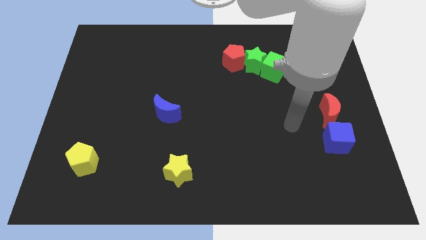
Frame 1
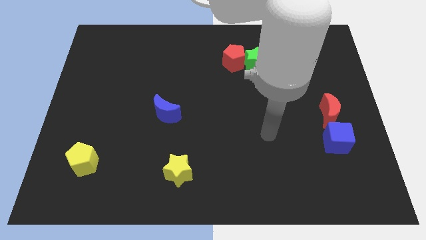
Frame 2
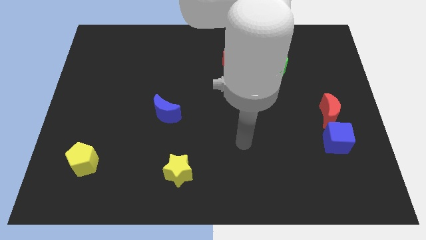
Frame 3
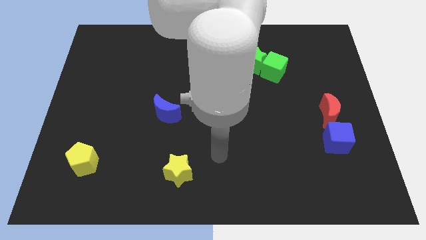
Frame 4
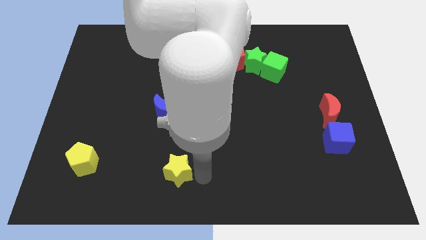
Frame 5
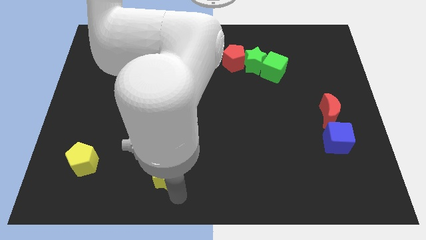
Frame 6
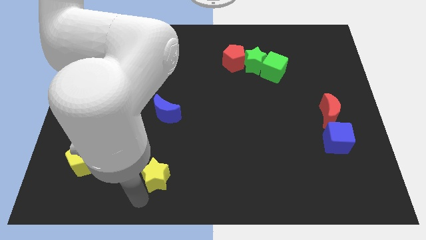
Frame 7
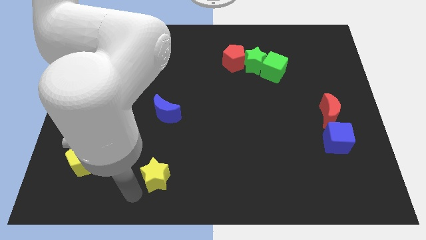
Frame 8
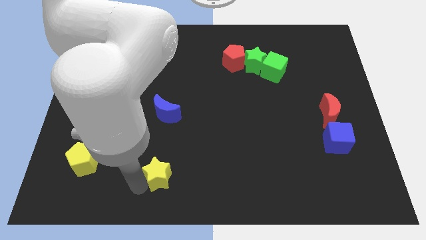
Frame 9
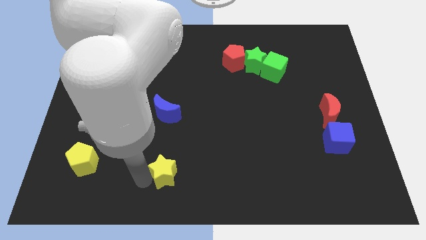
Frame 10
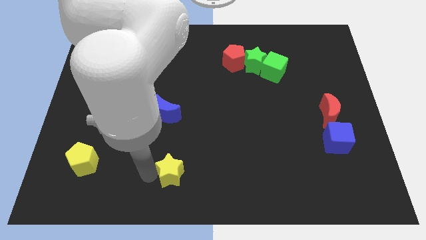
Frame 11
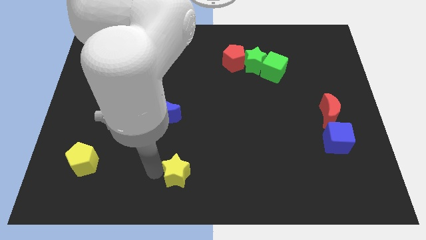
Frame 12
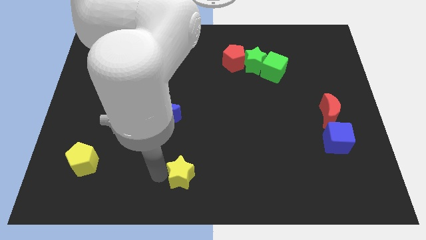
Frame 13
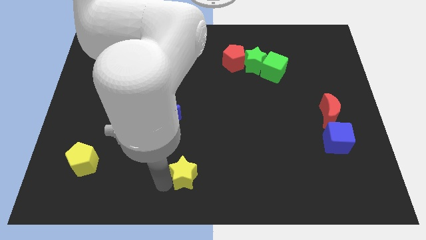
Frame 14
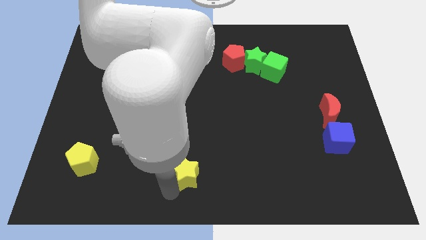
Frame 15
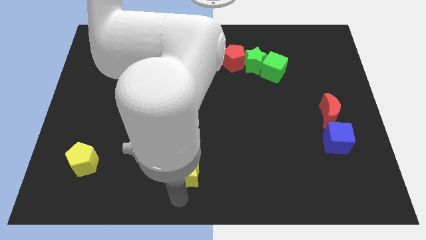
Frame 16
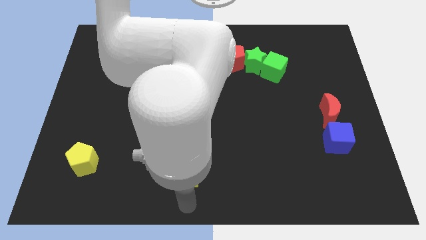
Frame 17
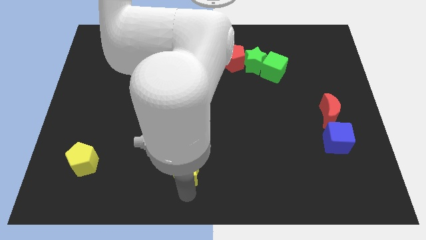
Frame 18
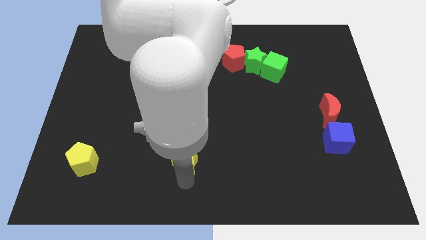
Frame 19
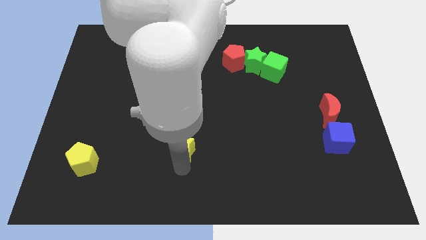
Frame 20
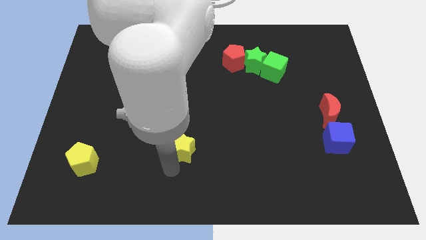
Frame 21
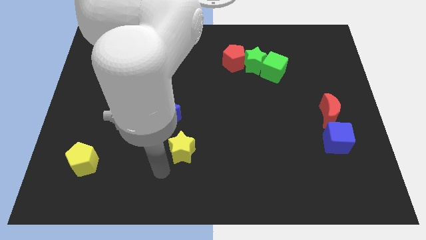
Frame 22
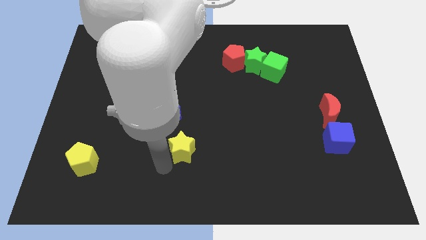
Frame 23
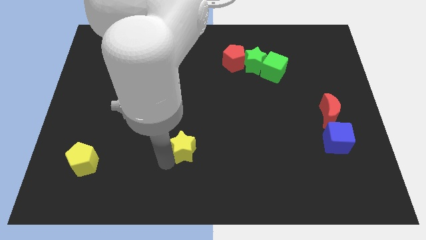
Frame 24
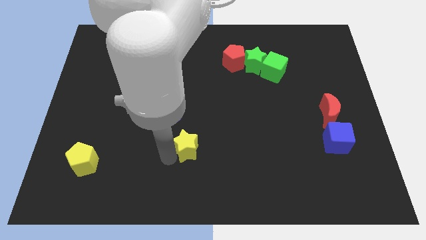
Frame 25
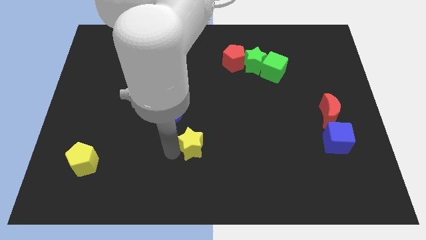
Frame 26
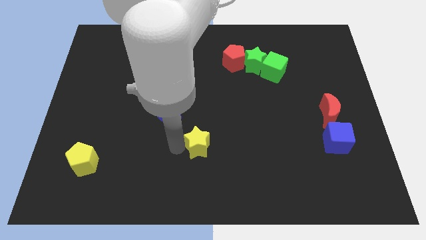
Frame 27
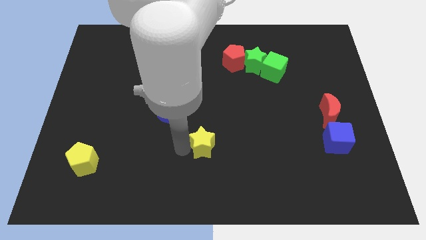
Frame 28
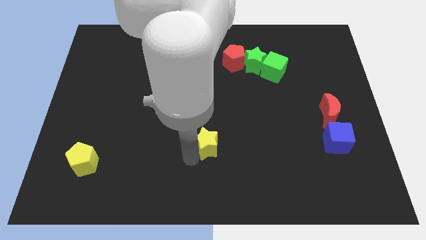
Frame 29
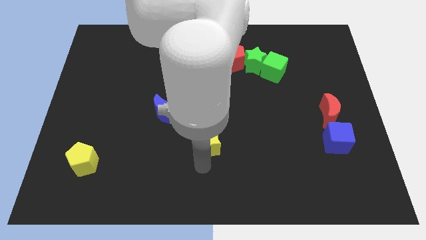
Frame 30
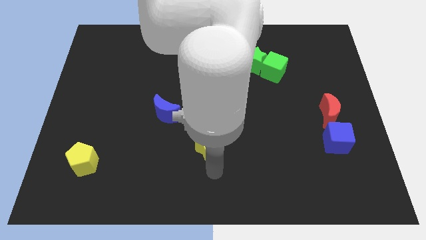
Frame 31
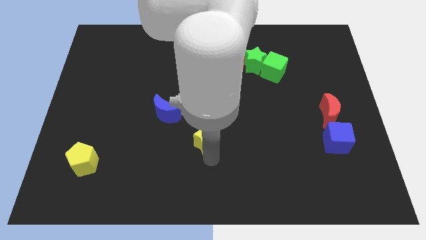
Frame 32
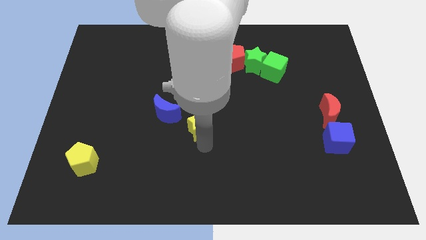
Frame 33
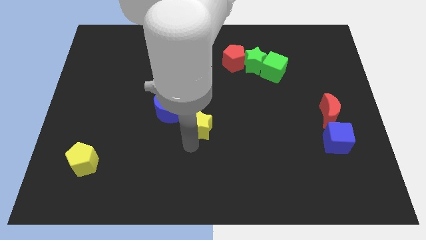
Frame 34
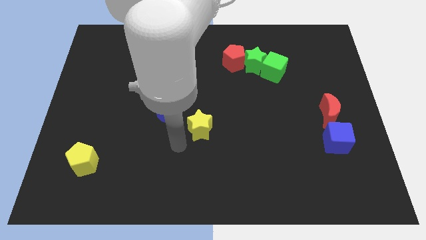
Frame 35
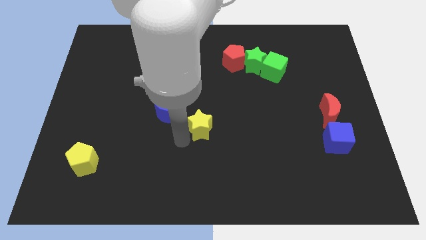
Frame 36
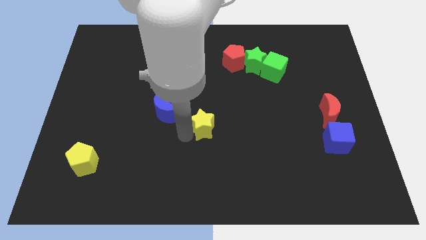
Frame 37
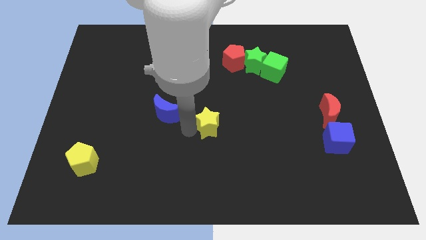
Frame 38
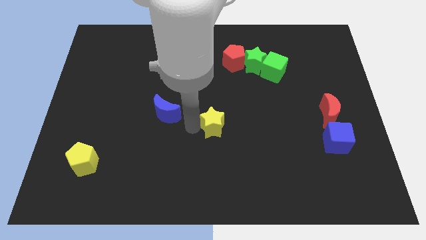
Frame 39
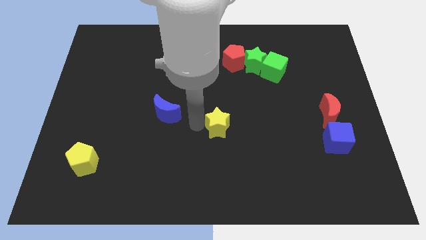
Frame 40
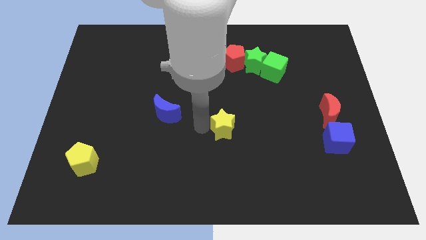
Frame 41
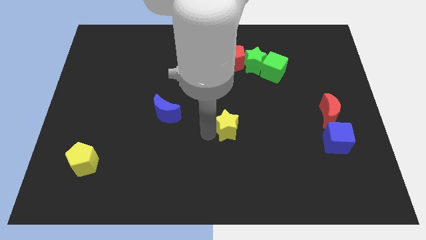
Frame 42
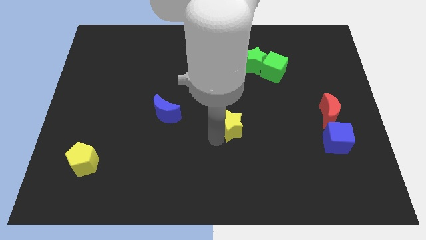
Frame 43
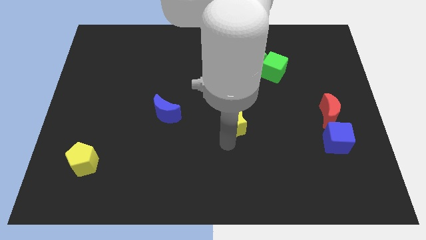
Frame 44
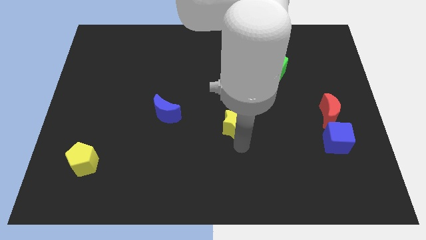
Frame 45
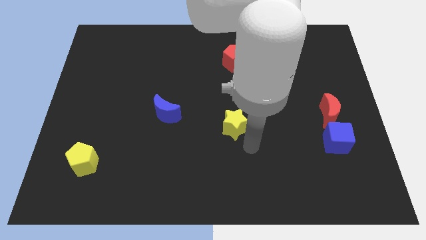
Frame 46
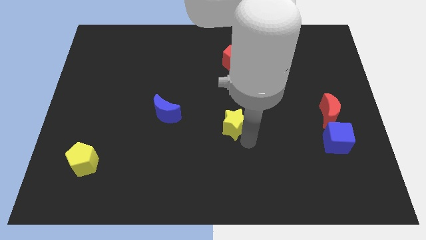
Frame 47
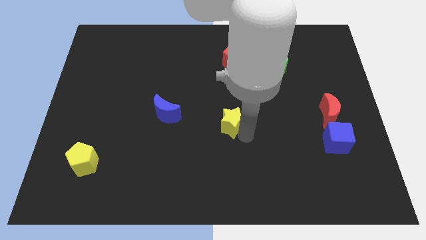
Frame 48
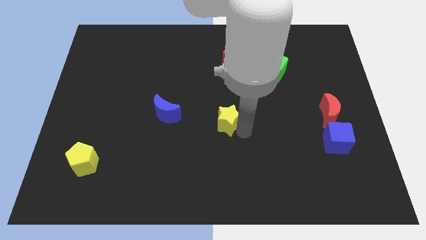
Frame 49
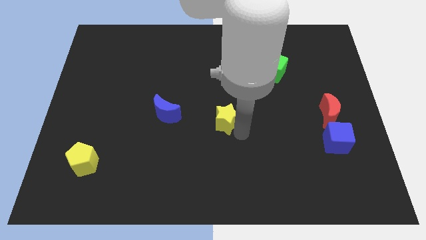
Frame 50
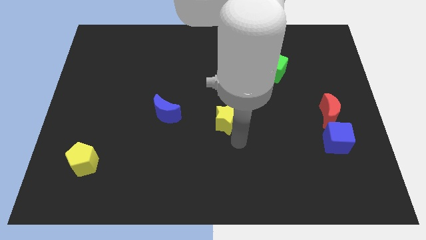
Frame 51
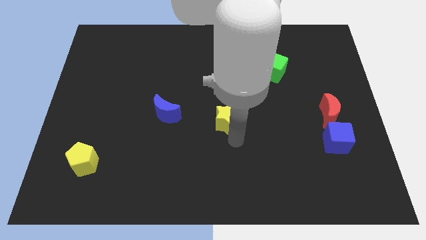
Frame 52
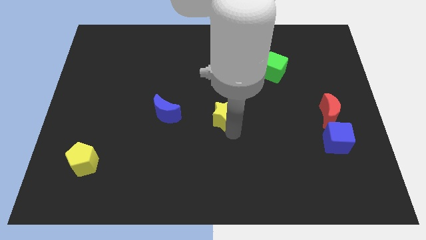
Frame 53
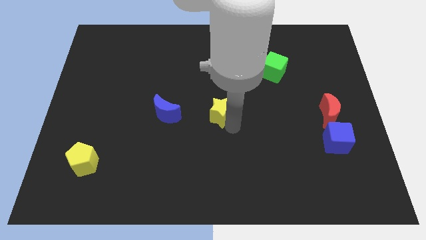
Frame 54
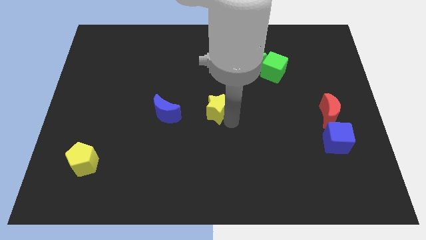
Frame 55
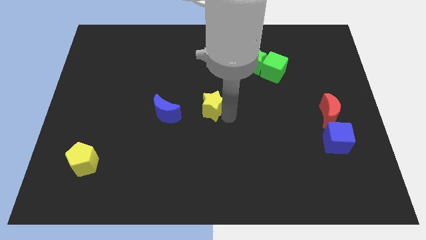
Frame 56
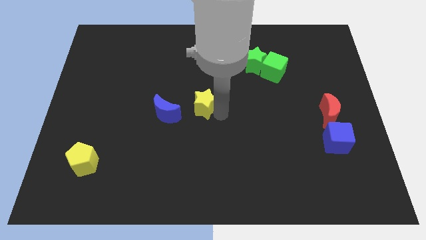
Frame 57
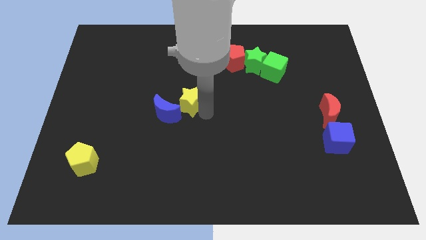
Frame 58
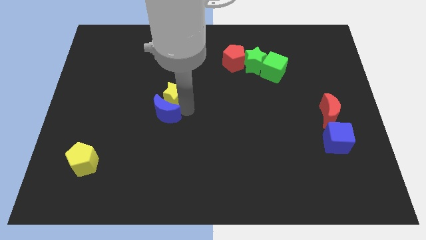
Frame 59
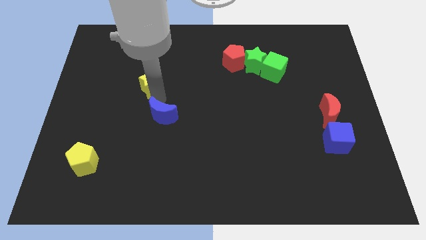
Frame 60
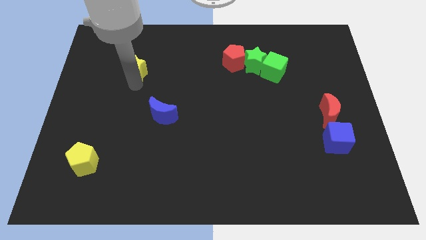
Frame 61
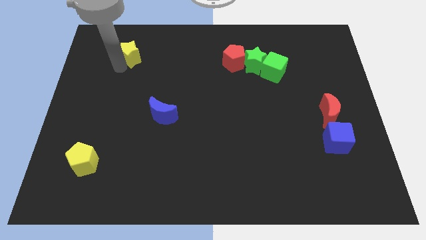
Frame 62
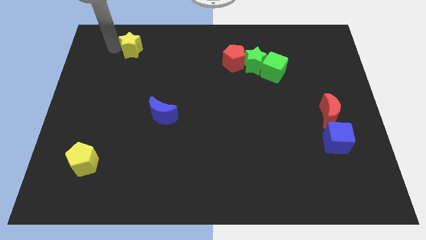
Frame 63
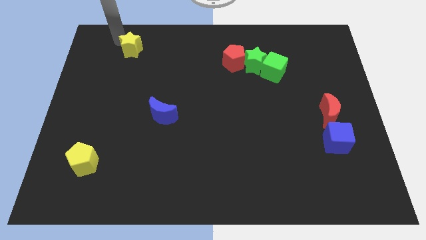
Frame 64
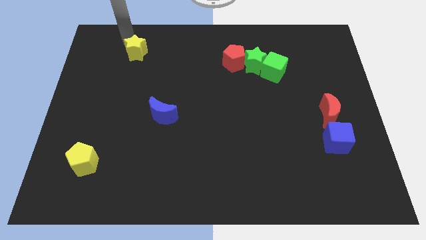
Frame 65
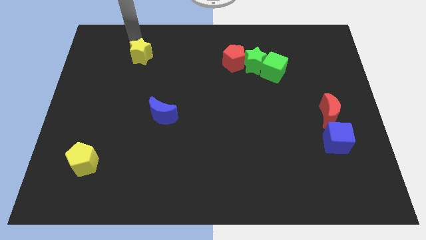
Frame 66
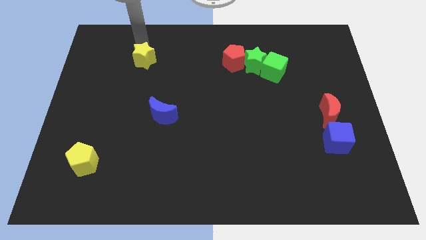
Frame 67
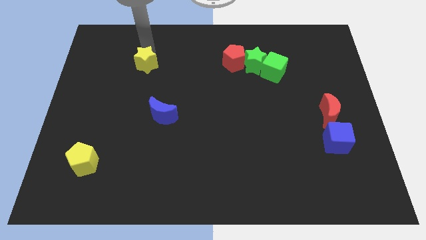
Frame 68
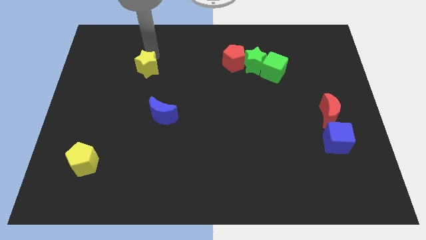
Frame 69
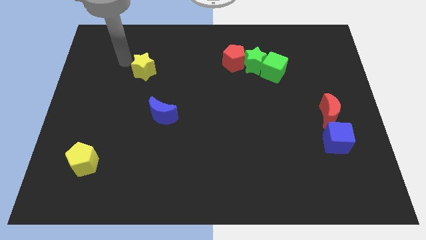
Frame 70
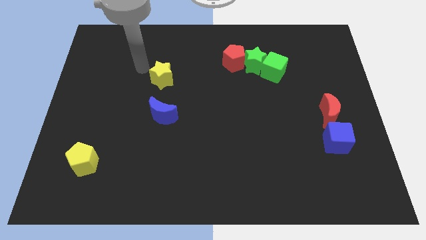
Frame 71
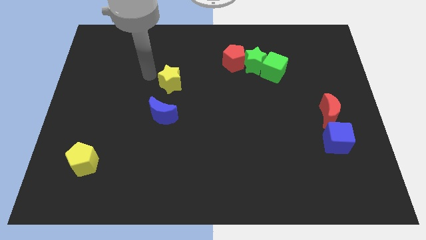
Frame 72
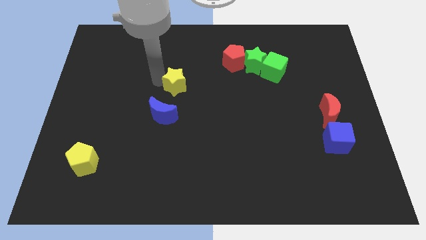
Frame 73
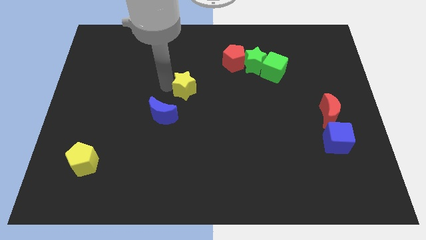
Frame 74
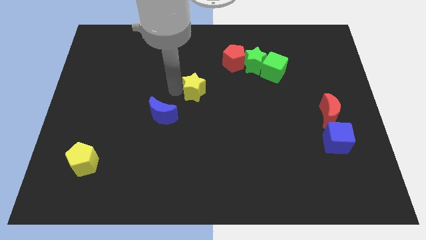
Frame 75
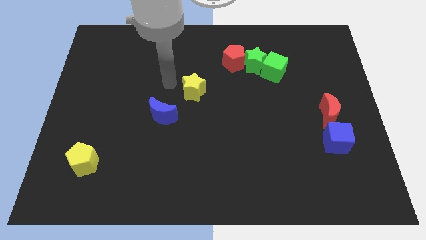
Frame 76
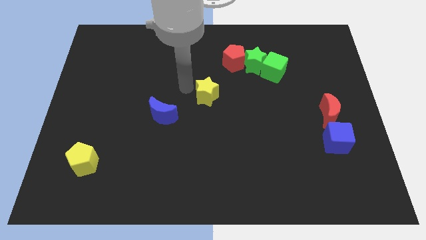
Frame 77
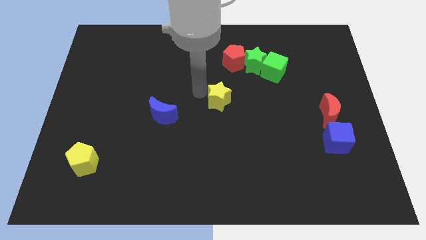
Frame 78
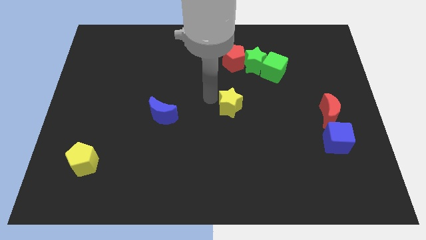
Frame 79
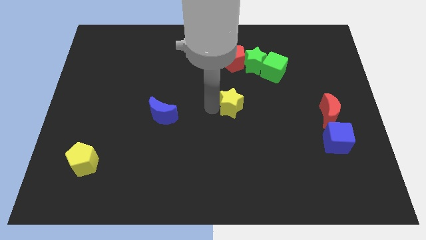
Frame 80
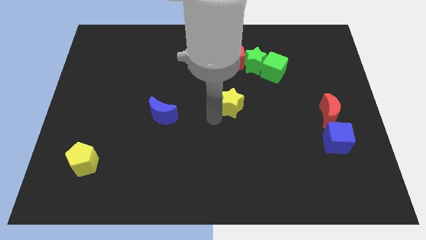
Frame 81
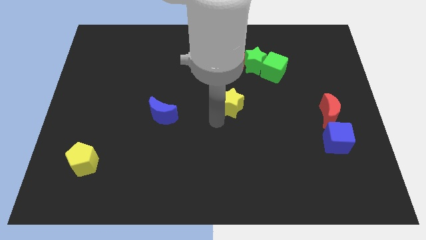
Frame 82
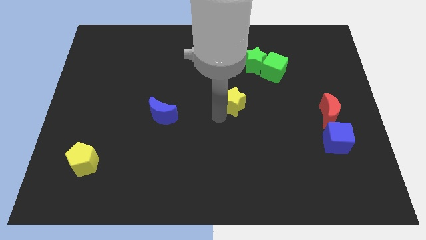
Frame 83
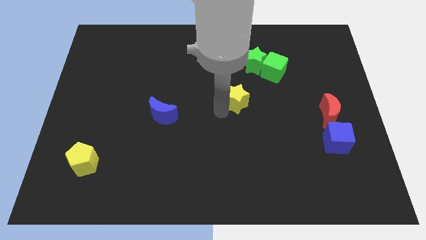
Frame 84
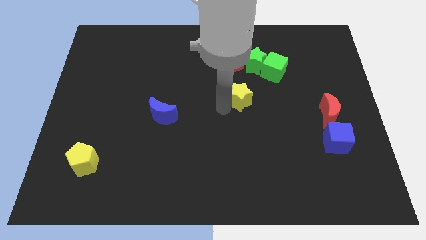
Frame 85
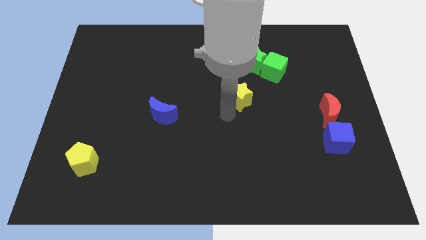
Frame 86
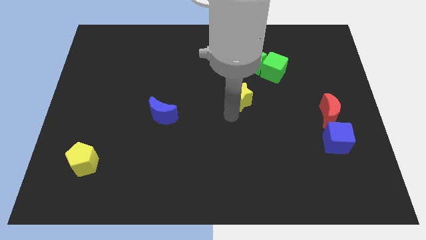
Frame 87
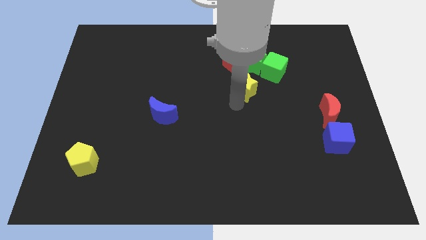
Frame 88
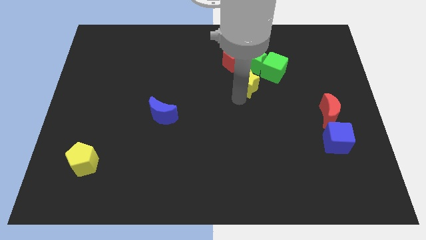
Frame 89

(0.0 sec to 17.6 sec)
push the yellow star to the bottom right of the red pentagon

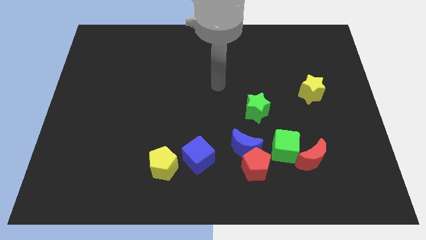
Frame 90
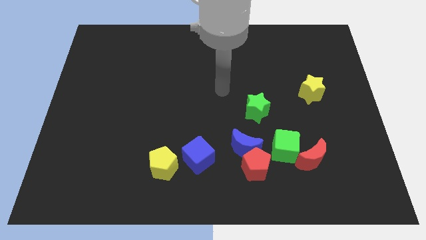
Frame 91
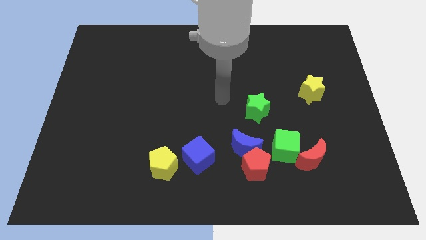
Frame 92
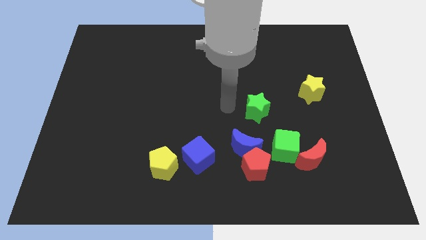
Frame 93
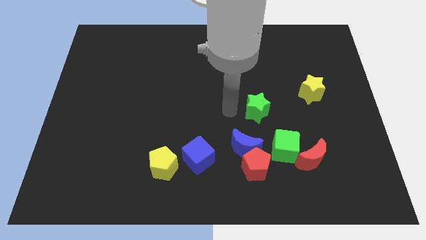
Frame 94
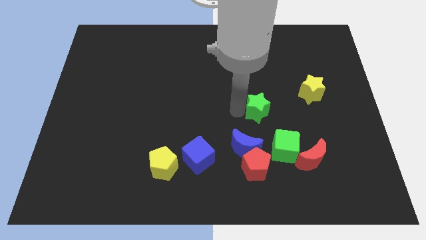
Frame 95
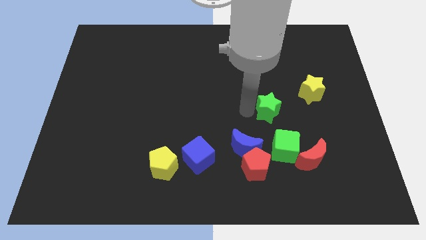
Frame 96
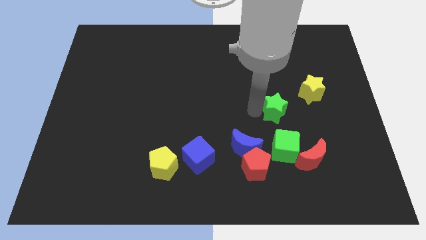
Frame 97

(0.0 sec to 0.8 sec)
push the green star to the bottom left of the yellow star
